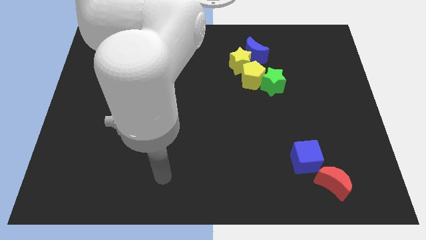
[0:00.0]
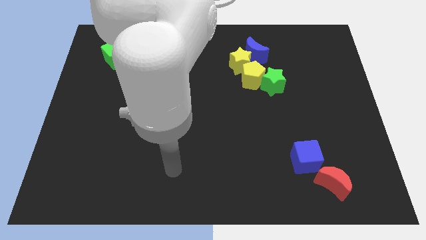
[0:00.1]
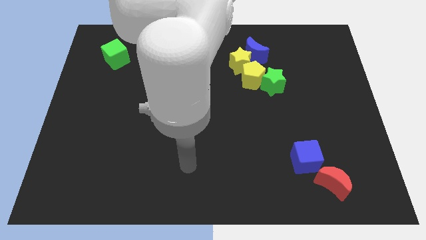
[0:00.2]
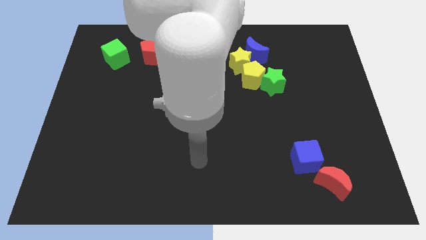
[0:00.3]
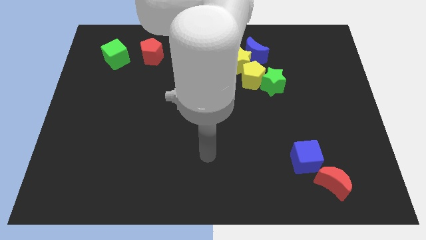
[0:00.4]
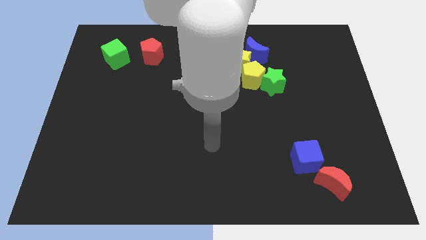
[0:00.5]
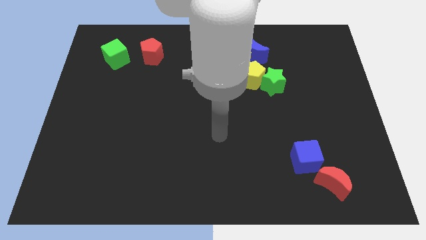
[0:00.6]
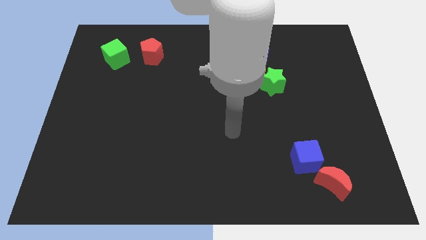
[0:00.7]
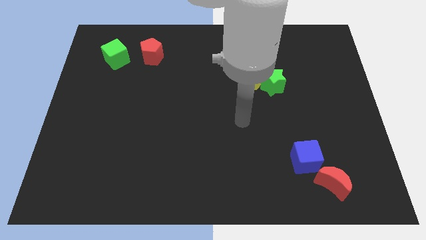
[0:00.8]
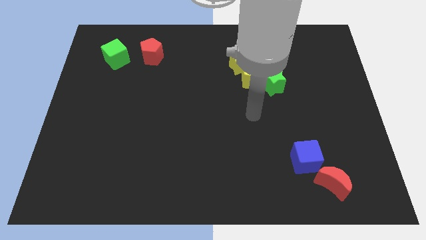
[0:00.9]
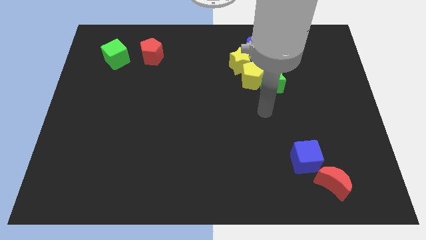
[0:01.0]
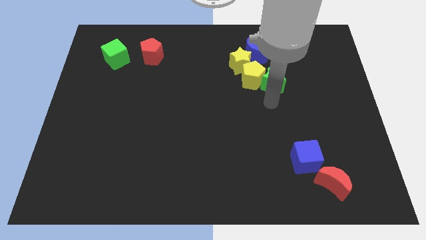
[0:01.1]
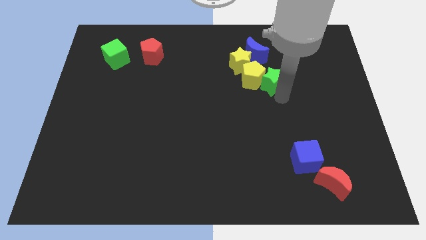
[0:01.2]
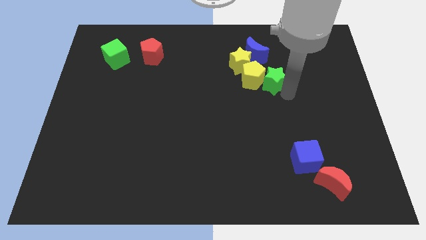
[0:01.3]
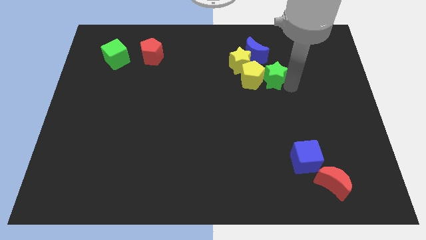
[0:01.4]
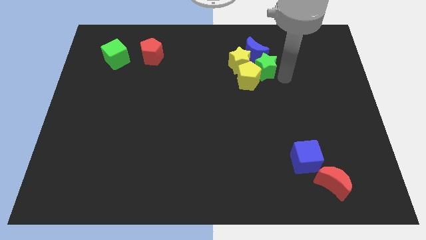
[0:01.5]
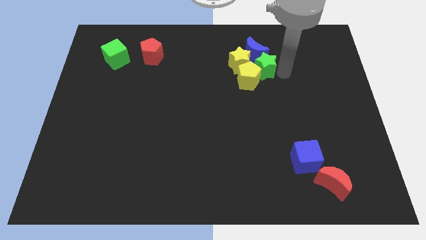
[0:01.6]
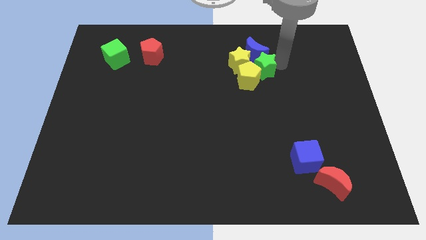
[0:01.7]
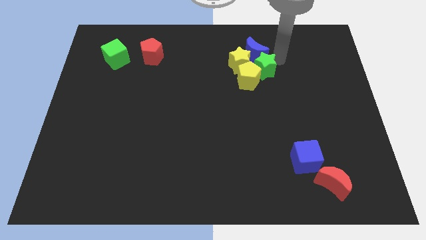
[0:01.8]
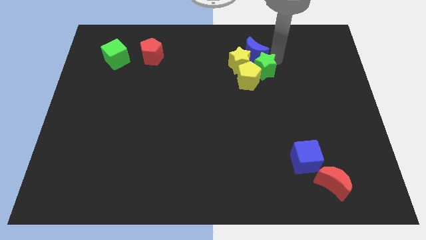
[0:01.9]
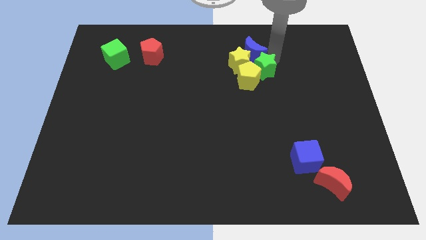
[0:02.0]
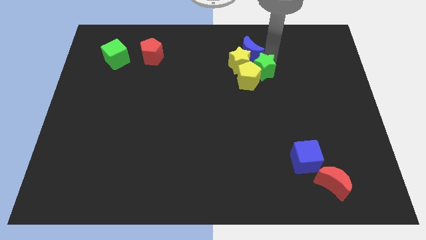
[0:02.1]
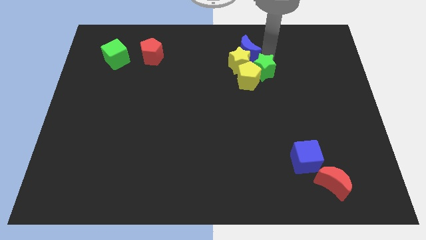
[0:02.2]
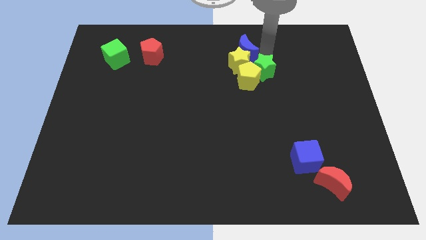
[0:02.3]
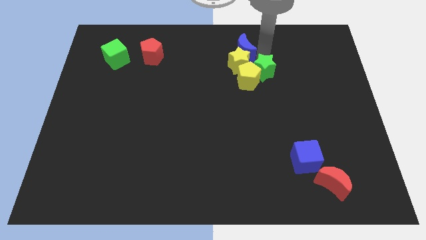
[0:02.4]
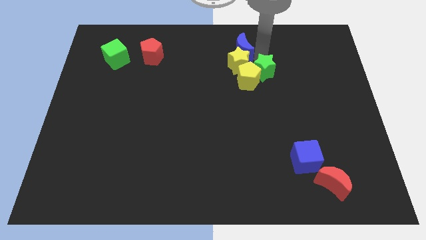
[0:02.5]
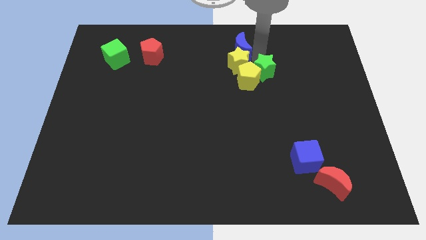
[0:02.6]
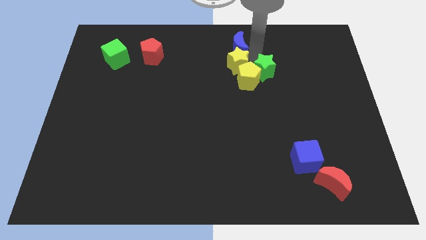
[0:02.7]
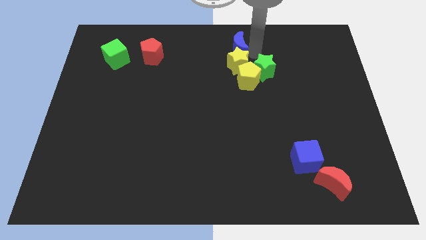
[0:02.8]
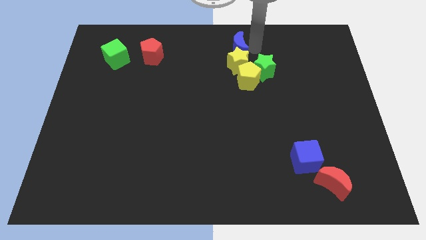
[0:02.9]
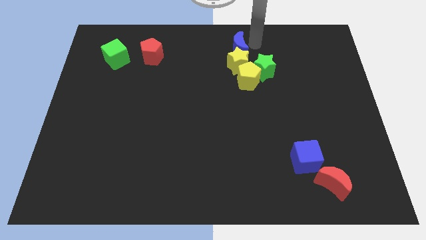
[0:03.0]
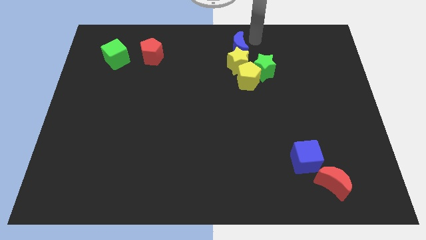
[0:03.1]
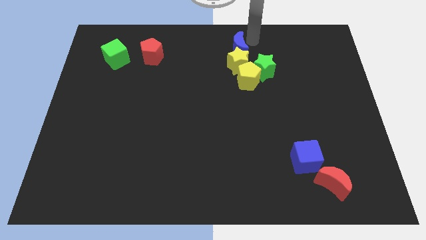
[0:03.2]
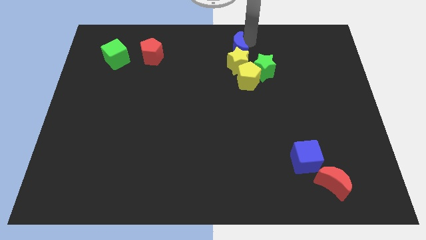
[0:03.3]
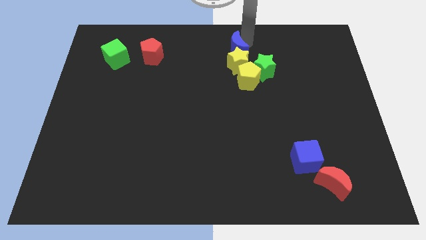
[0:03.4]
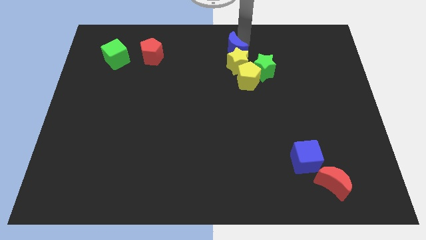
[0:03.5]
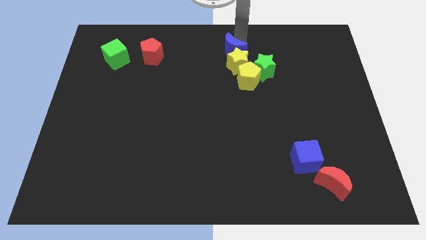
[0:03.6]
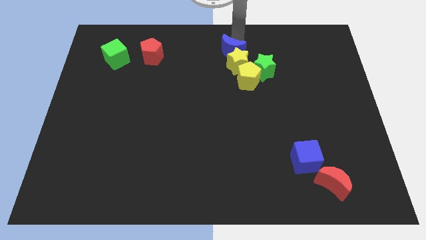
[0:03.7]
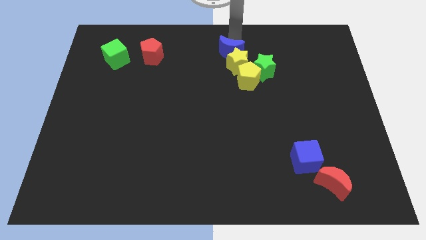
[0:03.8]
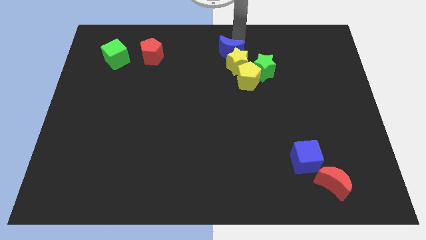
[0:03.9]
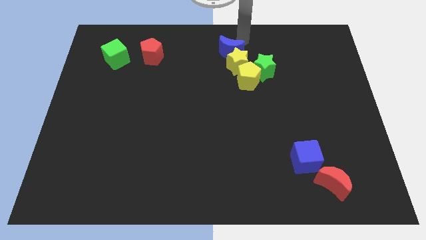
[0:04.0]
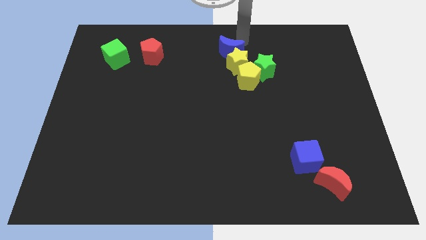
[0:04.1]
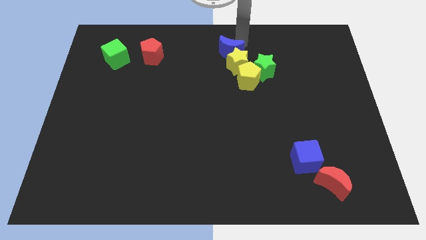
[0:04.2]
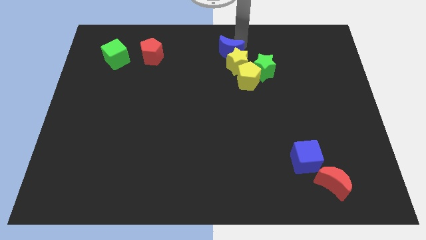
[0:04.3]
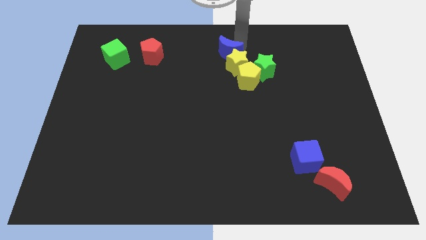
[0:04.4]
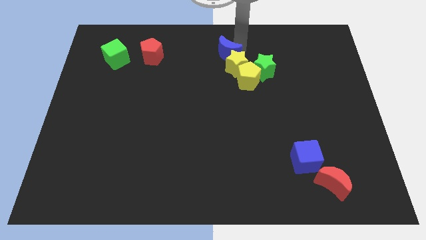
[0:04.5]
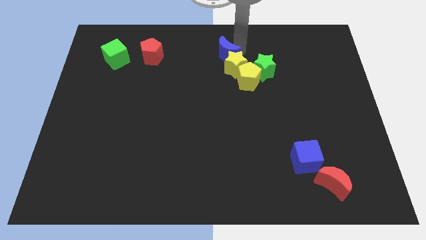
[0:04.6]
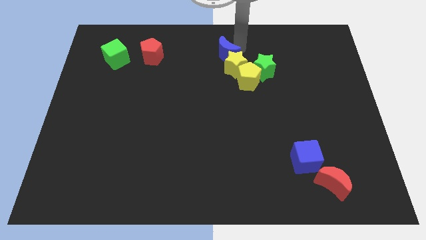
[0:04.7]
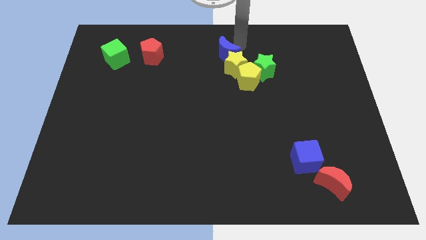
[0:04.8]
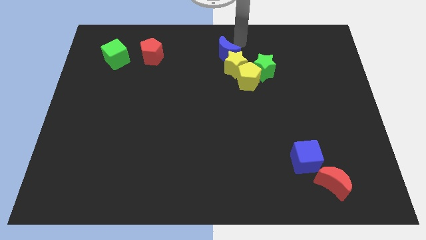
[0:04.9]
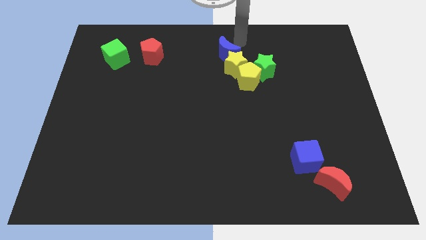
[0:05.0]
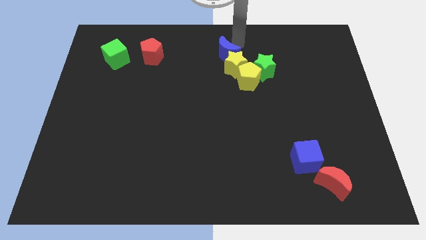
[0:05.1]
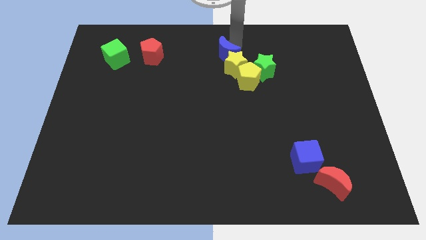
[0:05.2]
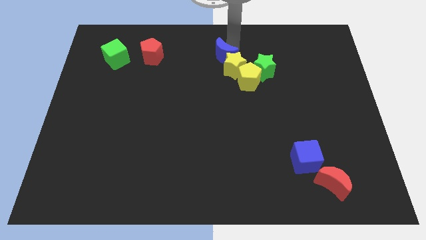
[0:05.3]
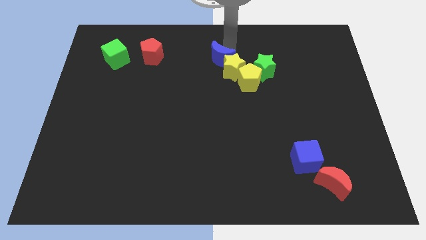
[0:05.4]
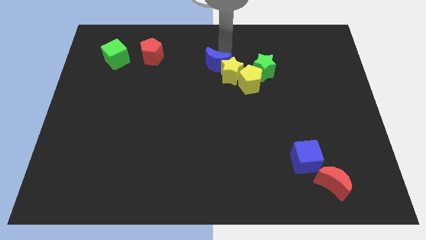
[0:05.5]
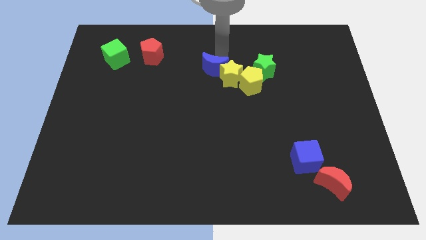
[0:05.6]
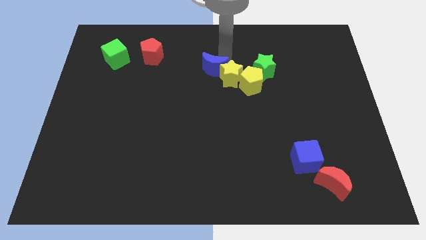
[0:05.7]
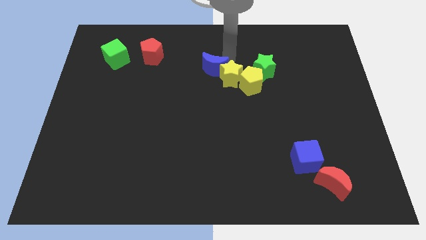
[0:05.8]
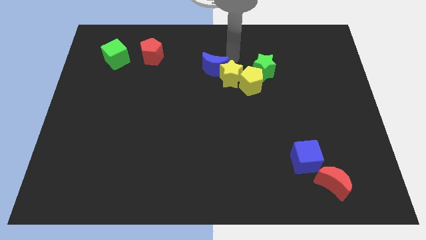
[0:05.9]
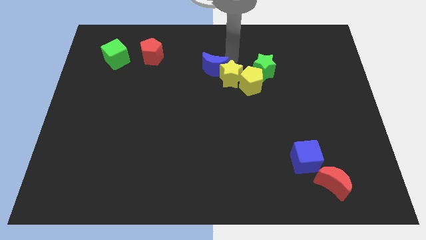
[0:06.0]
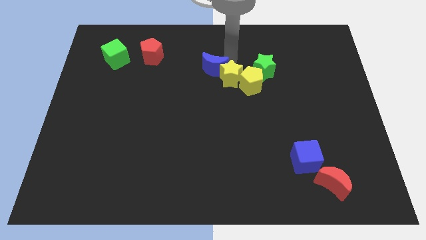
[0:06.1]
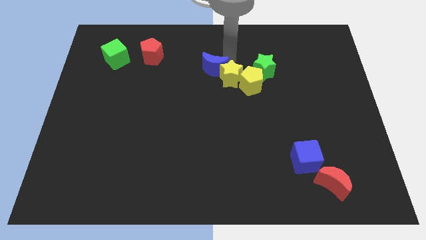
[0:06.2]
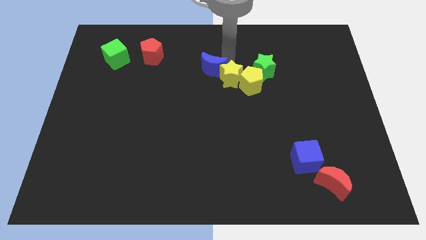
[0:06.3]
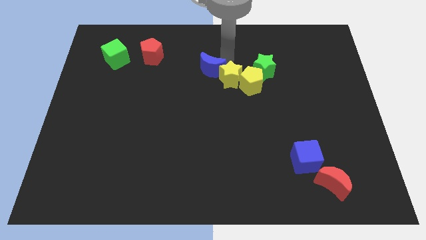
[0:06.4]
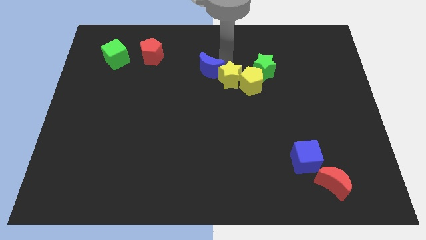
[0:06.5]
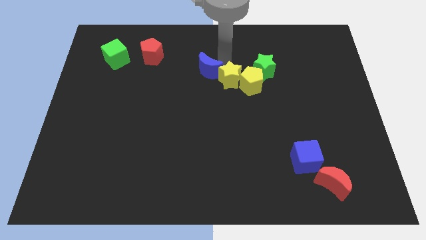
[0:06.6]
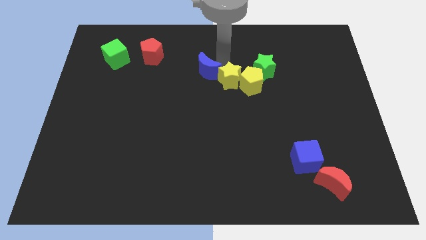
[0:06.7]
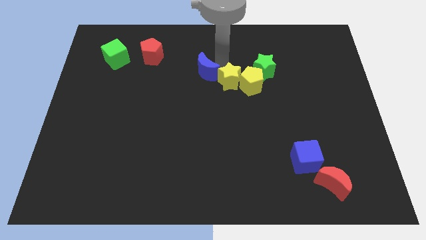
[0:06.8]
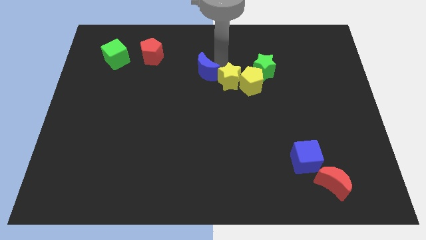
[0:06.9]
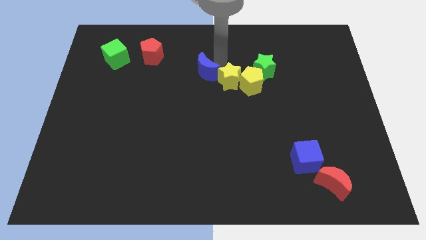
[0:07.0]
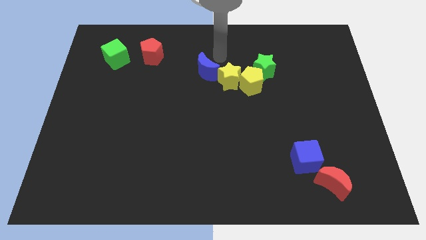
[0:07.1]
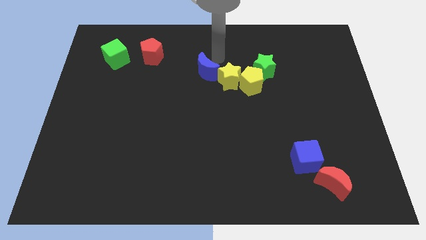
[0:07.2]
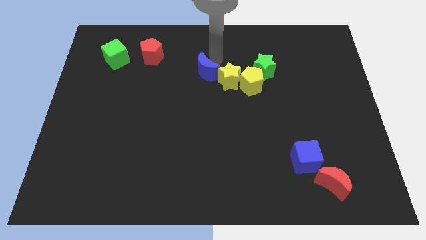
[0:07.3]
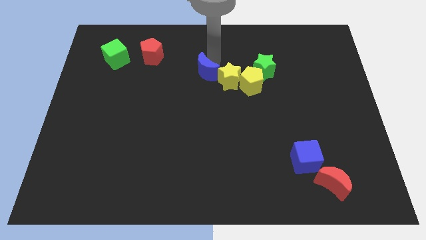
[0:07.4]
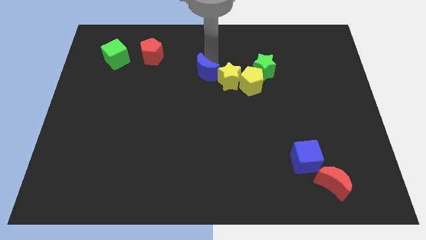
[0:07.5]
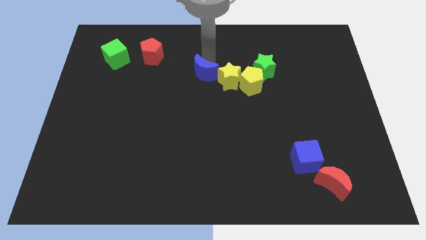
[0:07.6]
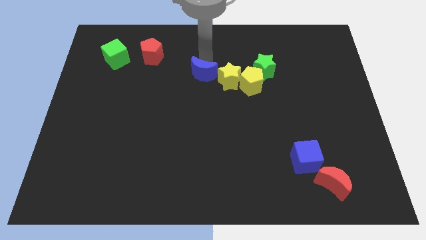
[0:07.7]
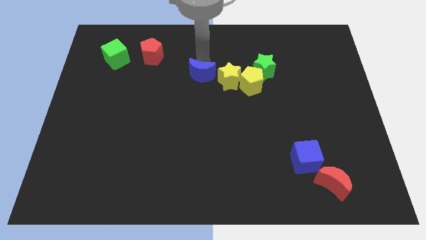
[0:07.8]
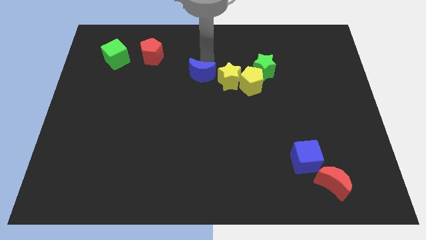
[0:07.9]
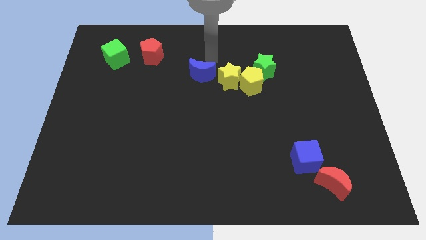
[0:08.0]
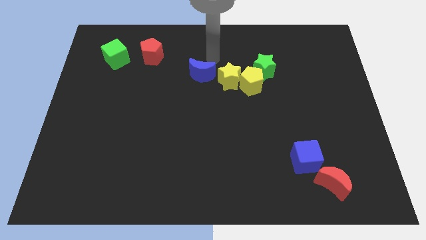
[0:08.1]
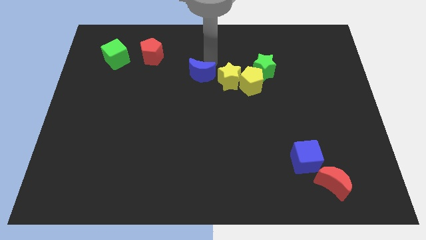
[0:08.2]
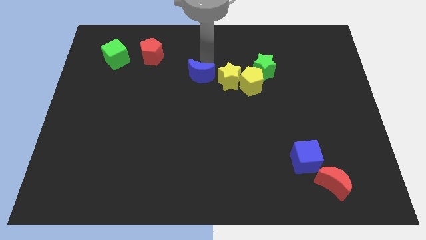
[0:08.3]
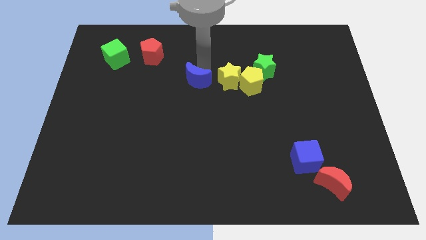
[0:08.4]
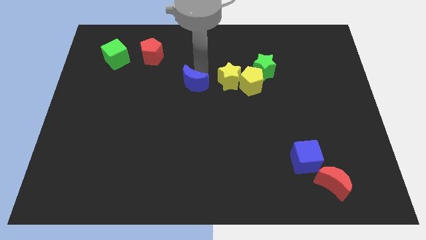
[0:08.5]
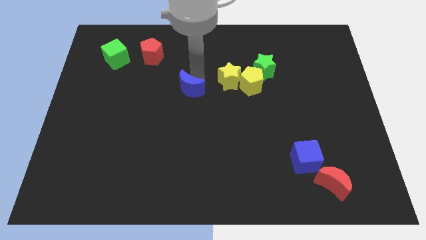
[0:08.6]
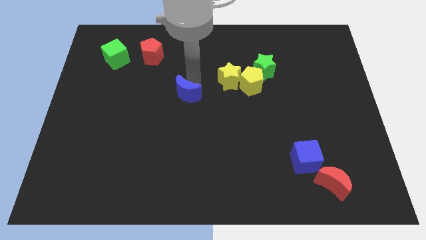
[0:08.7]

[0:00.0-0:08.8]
push the blue moon downwards and to the left diagonally
